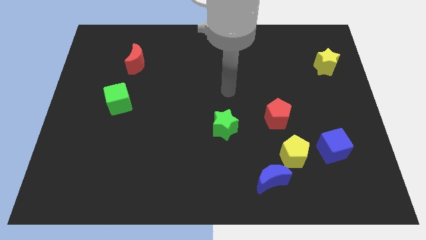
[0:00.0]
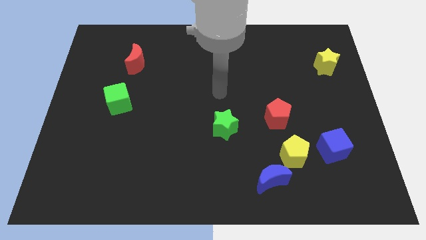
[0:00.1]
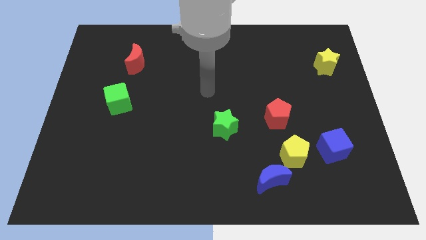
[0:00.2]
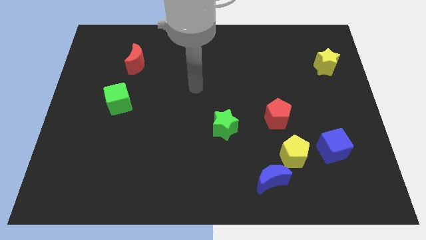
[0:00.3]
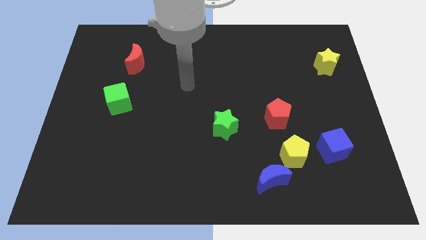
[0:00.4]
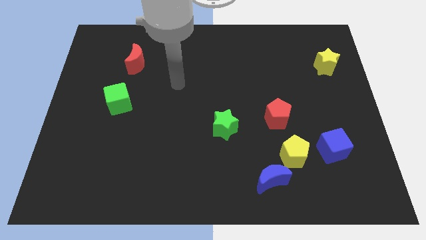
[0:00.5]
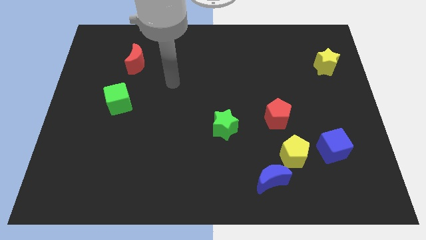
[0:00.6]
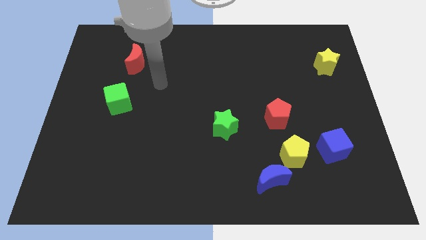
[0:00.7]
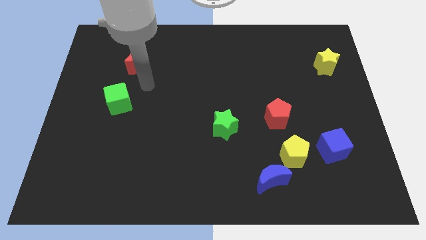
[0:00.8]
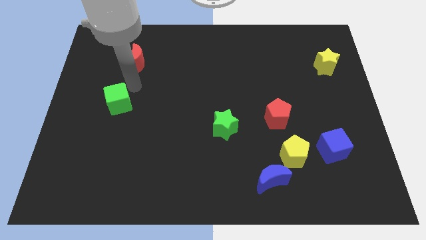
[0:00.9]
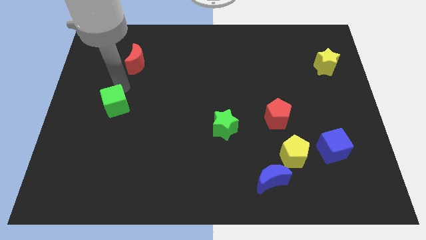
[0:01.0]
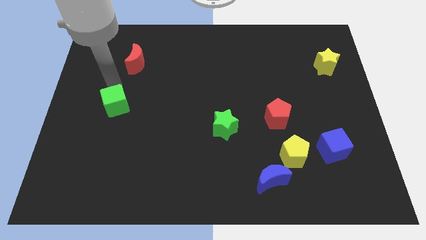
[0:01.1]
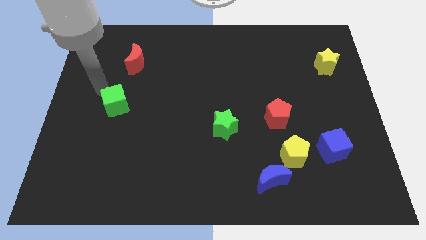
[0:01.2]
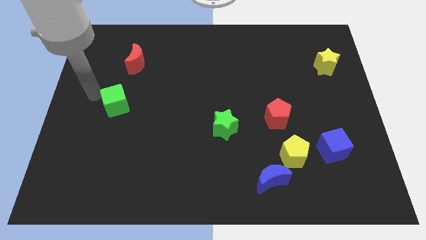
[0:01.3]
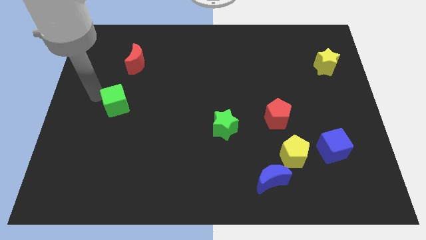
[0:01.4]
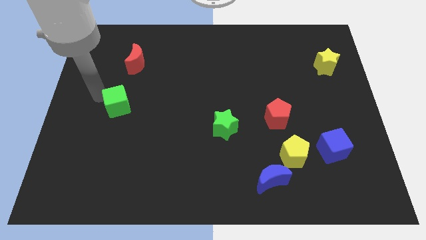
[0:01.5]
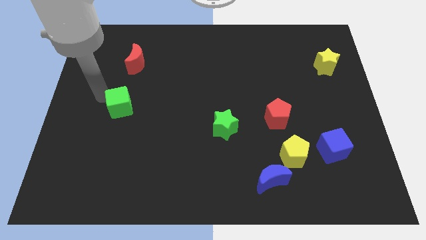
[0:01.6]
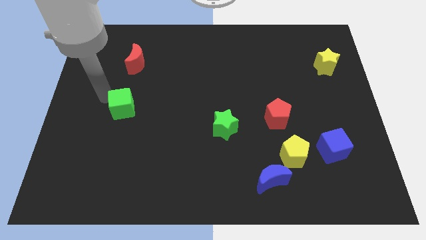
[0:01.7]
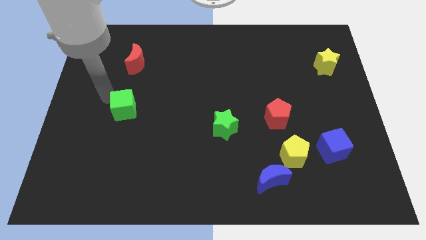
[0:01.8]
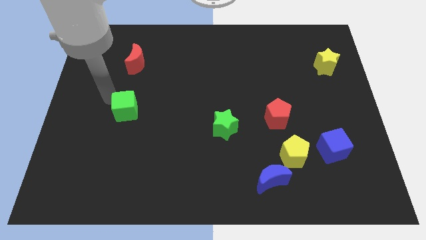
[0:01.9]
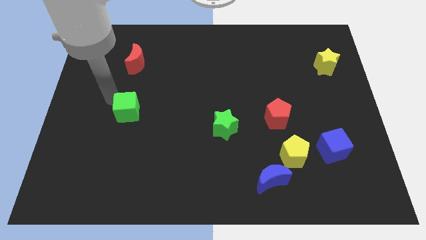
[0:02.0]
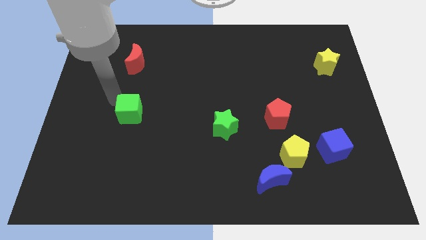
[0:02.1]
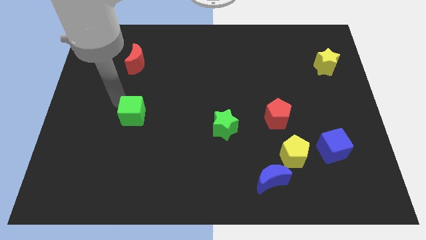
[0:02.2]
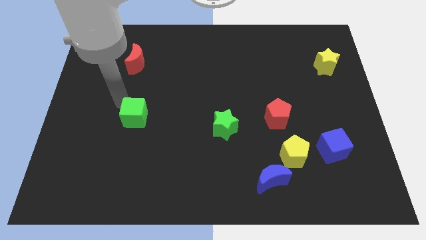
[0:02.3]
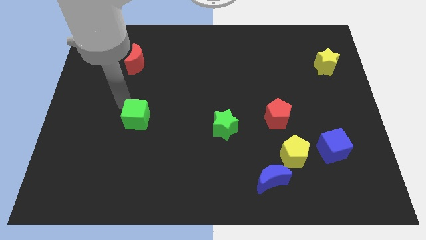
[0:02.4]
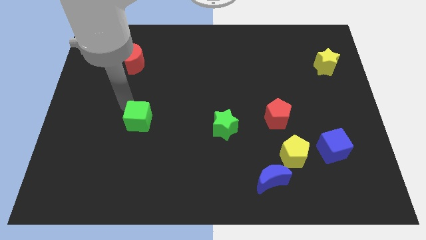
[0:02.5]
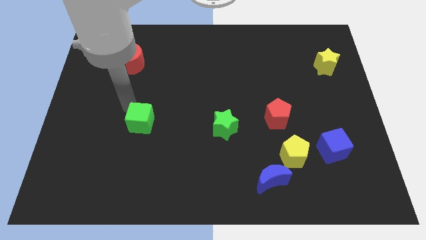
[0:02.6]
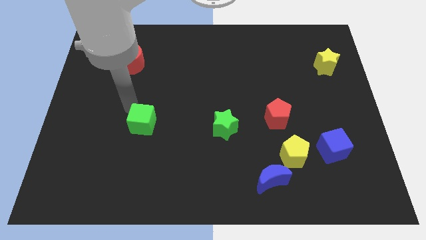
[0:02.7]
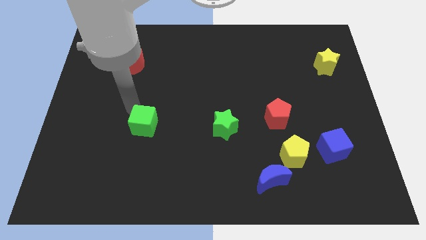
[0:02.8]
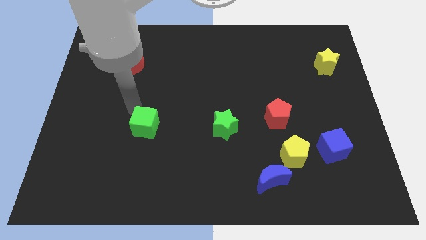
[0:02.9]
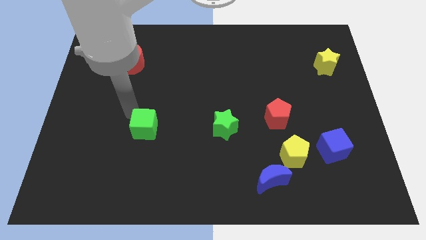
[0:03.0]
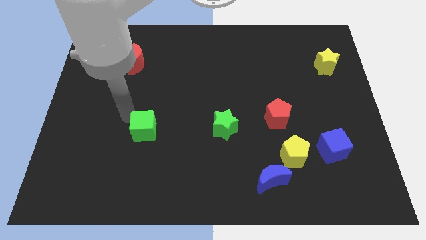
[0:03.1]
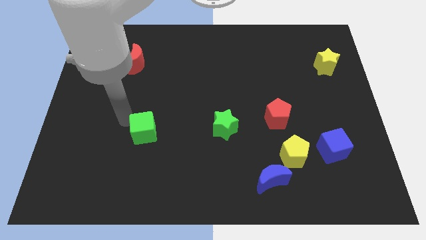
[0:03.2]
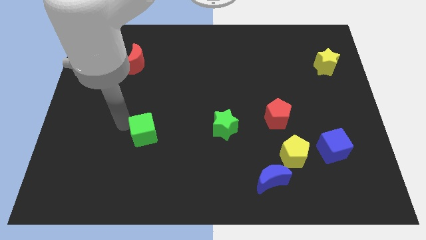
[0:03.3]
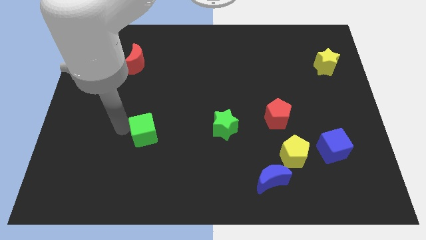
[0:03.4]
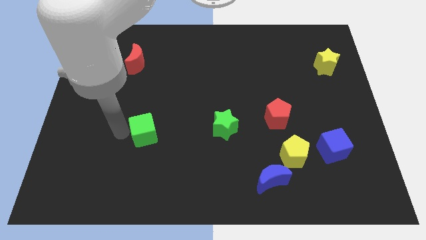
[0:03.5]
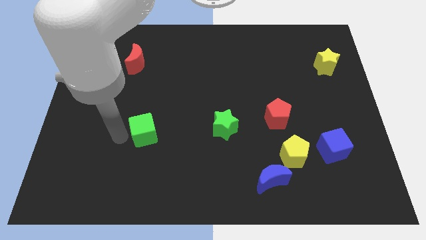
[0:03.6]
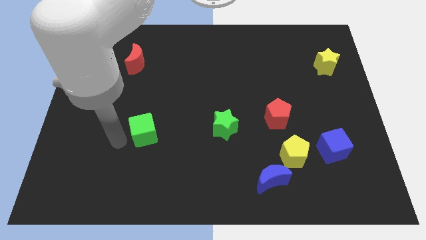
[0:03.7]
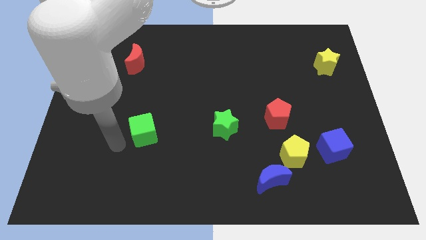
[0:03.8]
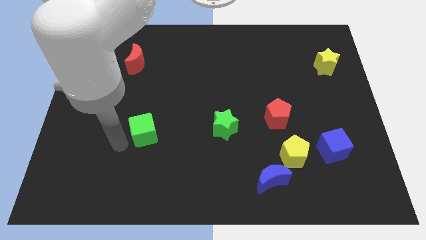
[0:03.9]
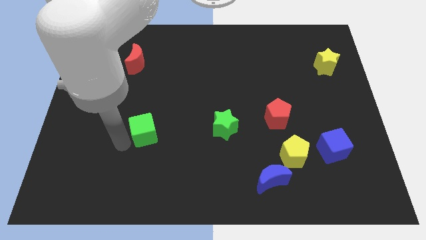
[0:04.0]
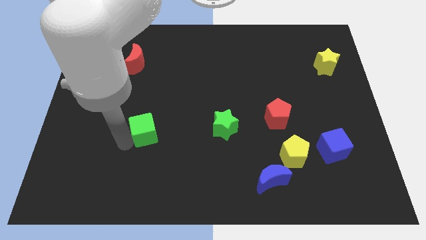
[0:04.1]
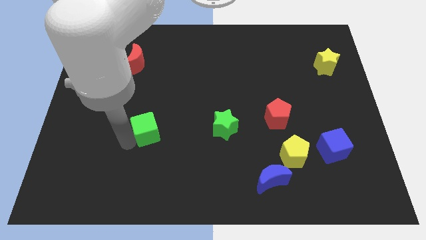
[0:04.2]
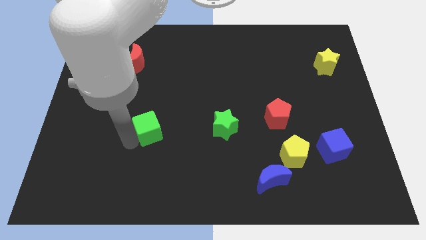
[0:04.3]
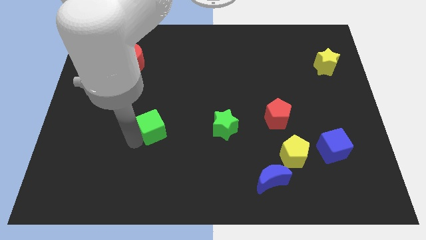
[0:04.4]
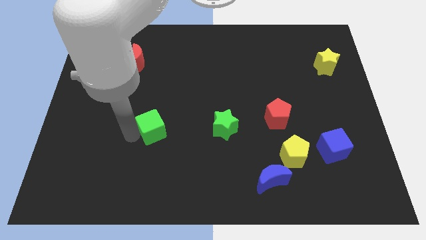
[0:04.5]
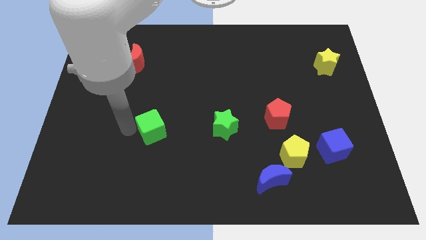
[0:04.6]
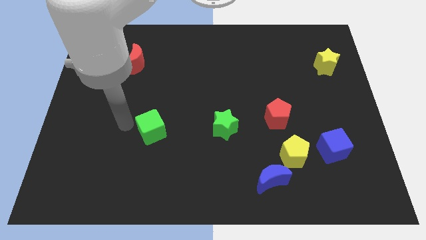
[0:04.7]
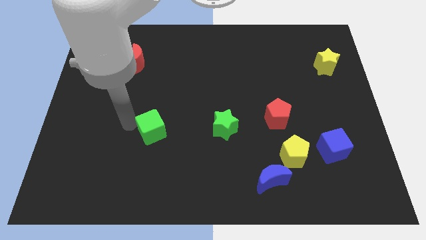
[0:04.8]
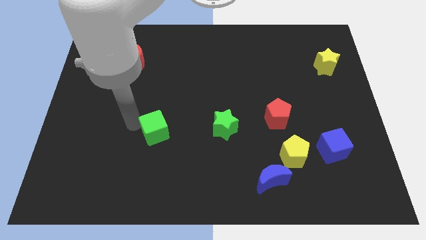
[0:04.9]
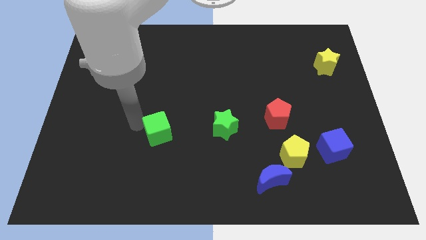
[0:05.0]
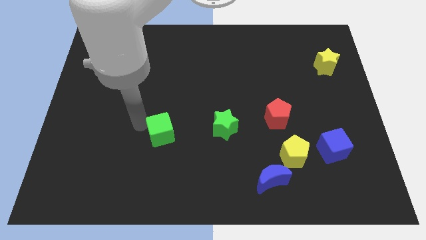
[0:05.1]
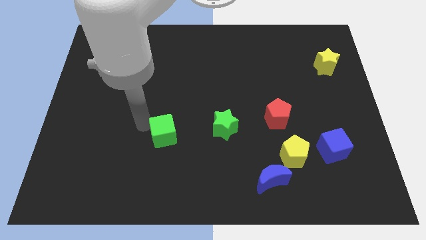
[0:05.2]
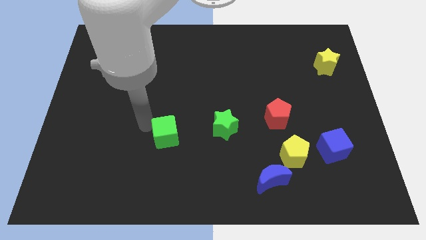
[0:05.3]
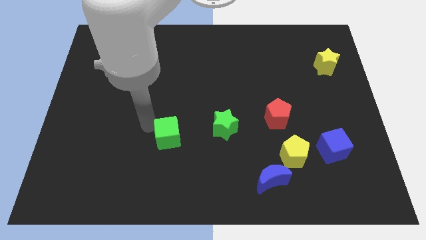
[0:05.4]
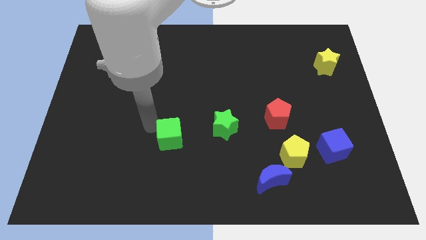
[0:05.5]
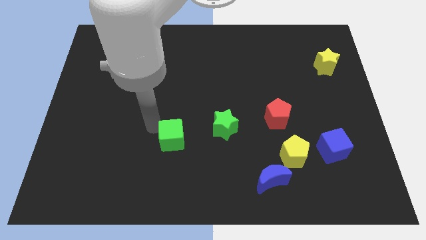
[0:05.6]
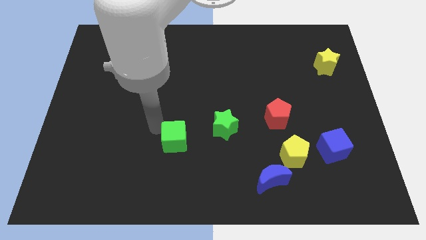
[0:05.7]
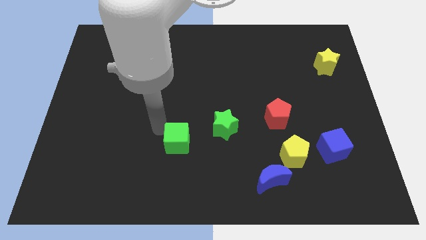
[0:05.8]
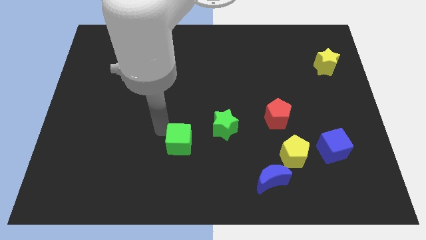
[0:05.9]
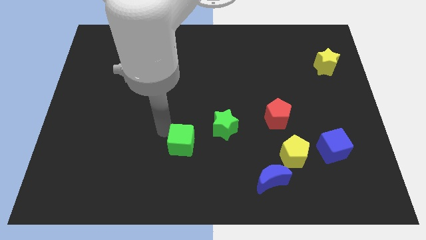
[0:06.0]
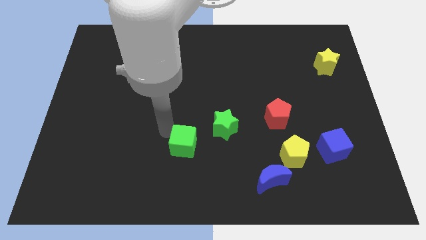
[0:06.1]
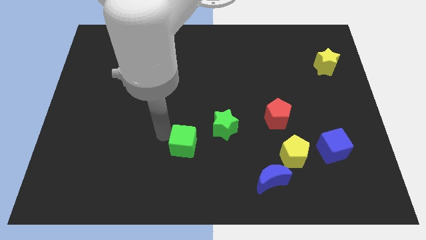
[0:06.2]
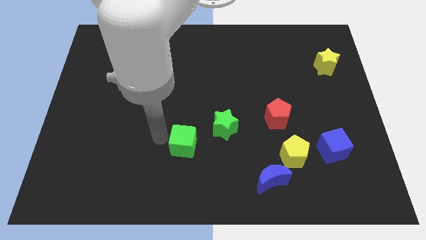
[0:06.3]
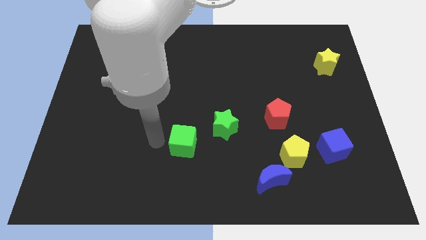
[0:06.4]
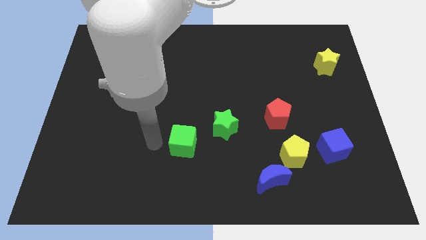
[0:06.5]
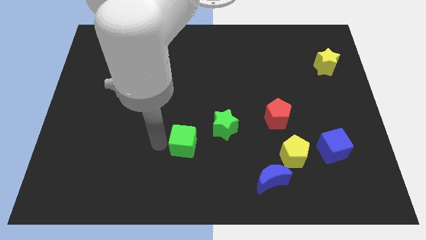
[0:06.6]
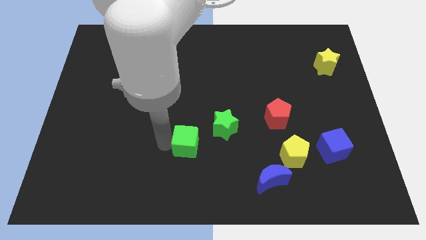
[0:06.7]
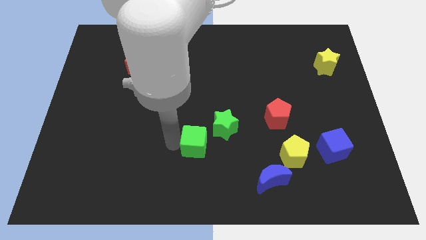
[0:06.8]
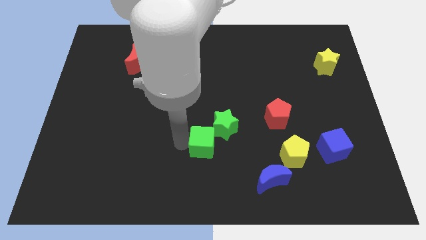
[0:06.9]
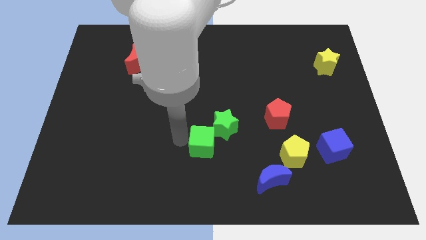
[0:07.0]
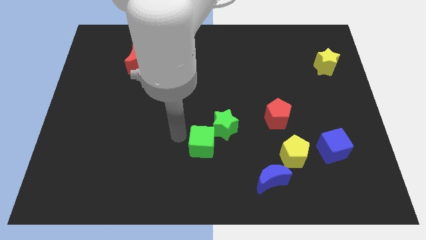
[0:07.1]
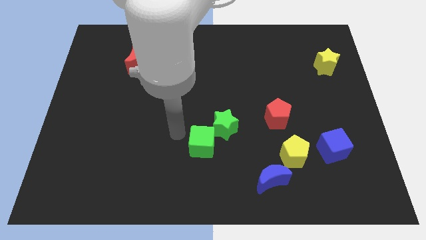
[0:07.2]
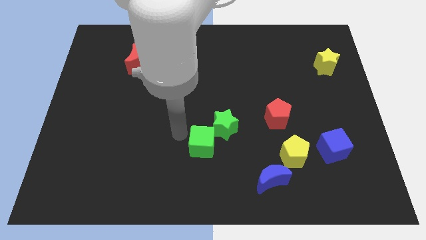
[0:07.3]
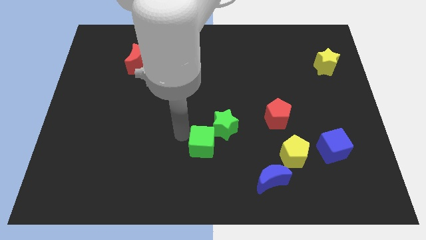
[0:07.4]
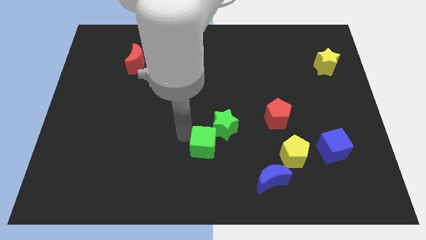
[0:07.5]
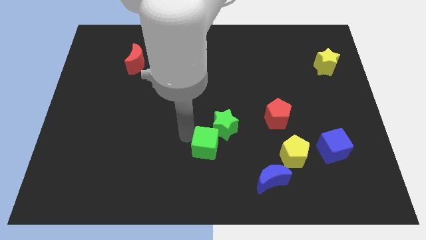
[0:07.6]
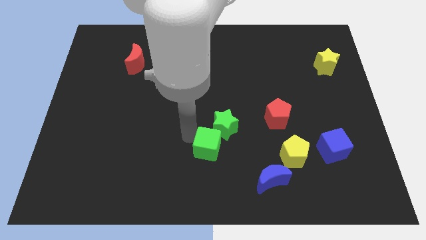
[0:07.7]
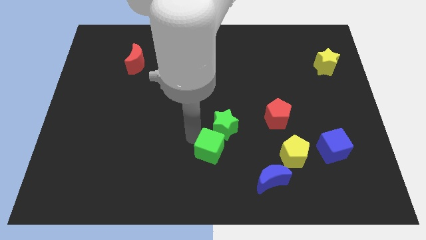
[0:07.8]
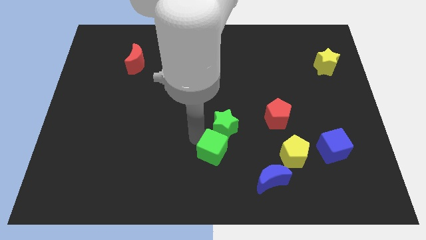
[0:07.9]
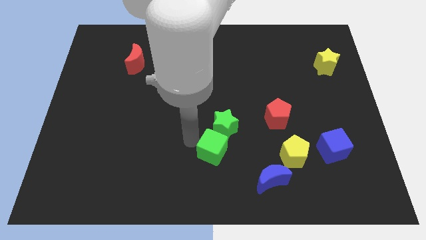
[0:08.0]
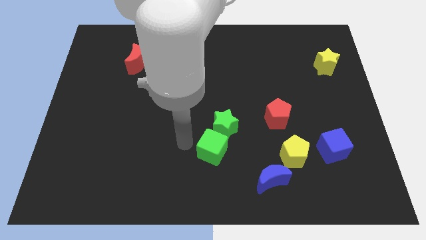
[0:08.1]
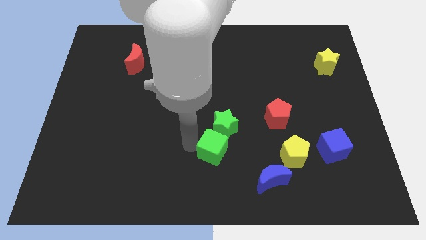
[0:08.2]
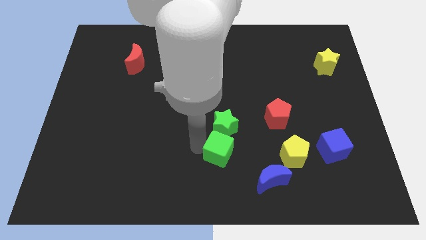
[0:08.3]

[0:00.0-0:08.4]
slide the green cube to the top left of the blue moon
